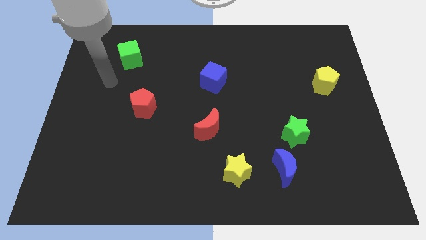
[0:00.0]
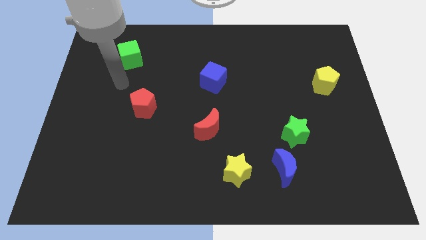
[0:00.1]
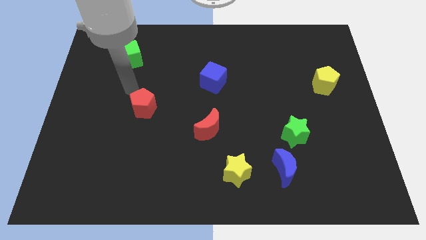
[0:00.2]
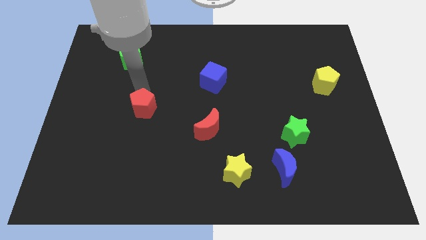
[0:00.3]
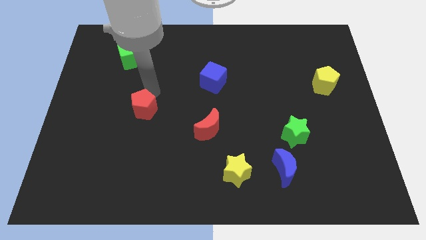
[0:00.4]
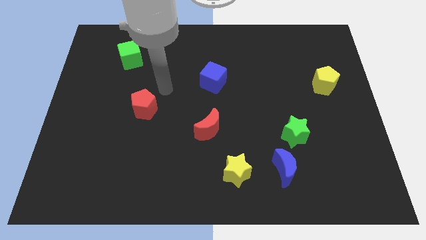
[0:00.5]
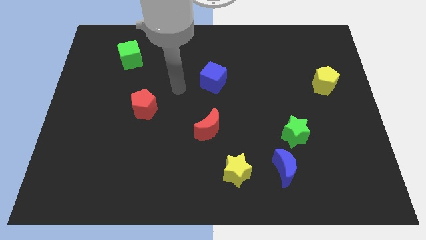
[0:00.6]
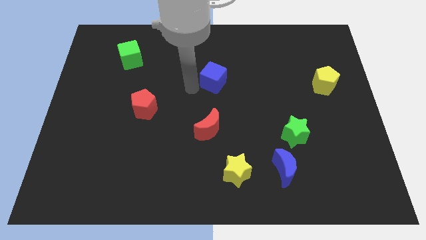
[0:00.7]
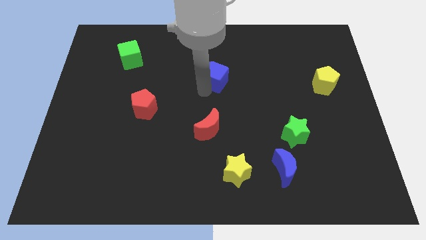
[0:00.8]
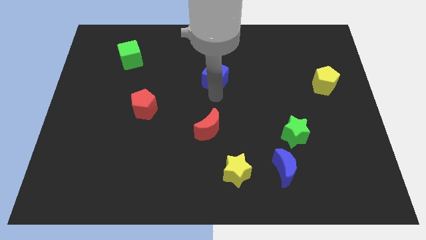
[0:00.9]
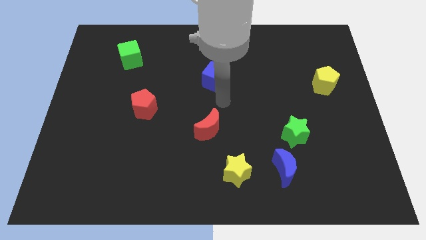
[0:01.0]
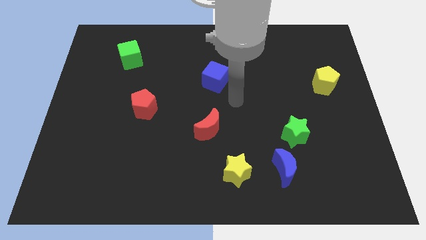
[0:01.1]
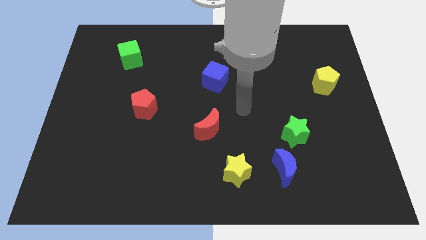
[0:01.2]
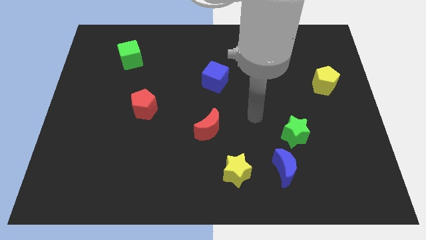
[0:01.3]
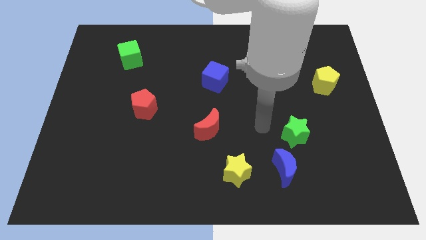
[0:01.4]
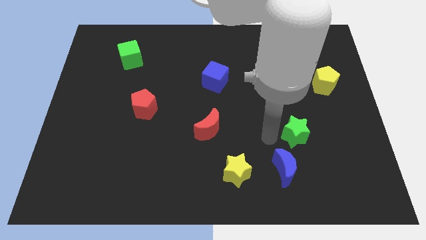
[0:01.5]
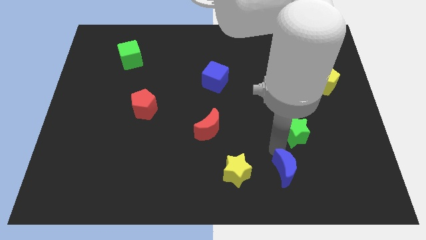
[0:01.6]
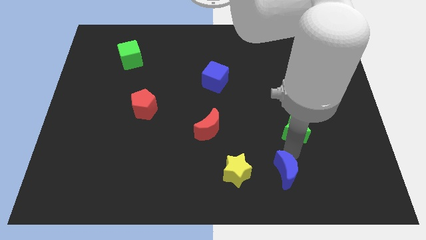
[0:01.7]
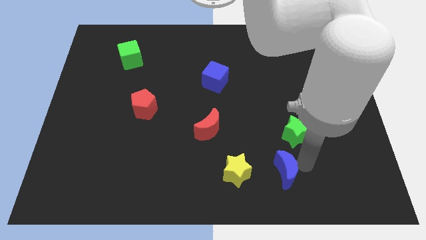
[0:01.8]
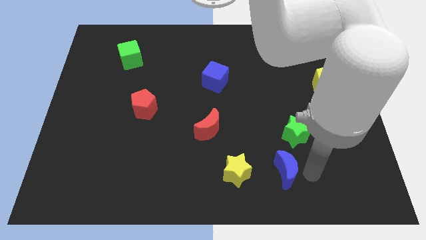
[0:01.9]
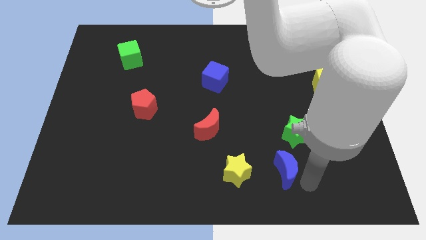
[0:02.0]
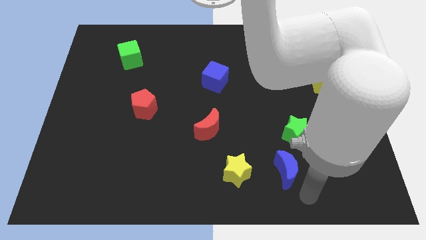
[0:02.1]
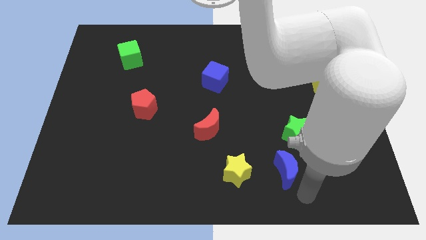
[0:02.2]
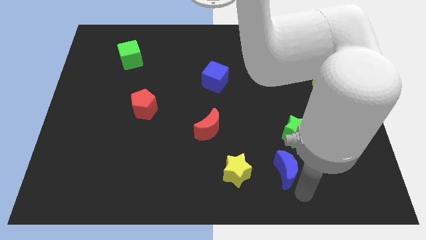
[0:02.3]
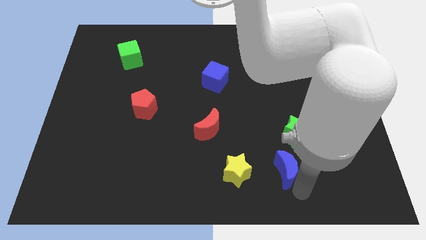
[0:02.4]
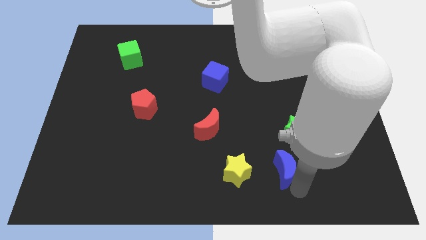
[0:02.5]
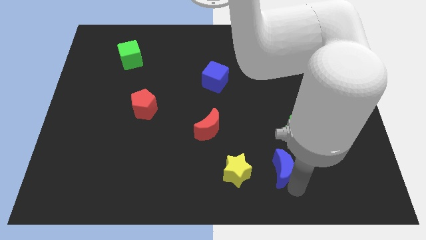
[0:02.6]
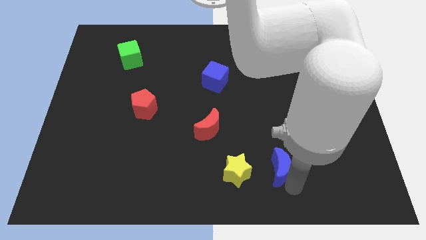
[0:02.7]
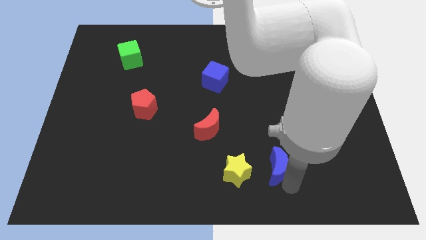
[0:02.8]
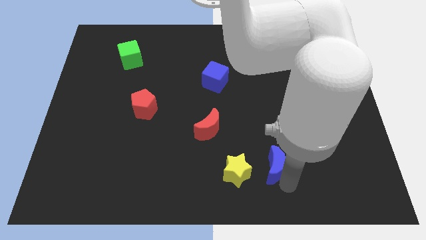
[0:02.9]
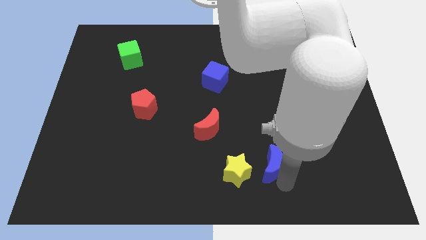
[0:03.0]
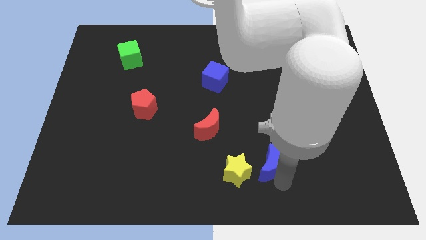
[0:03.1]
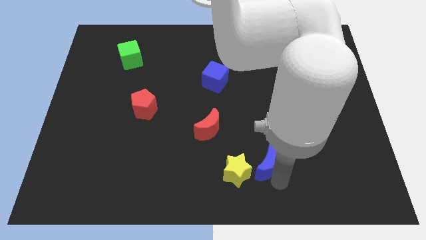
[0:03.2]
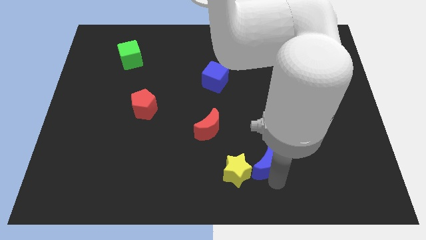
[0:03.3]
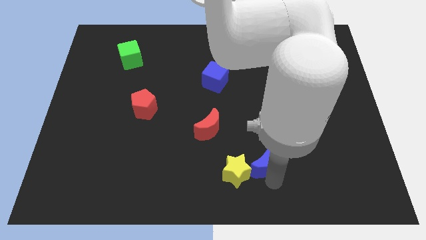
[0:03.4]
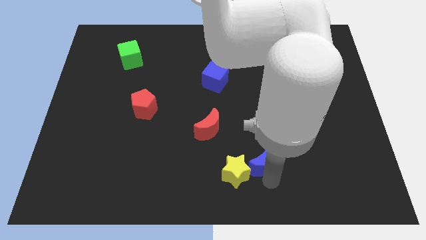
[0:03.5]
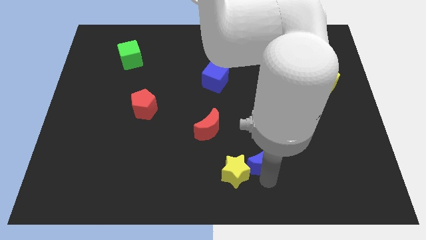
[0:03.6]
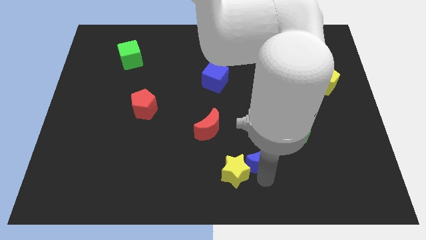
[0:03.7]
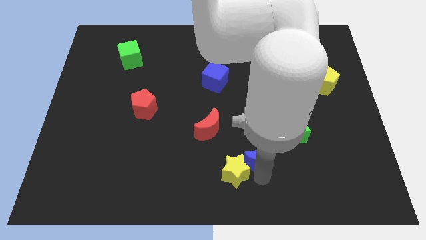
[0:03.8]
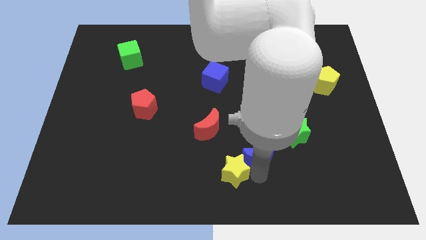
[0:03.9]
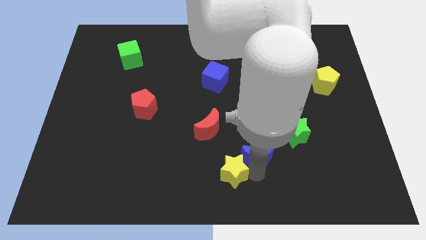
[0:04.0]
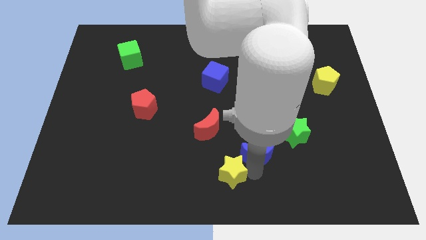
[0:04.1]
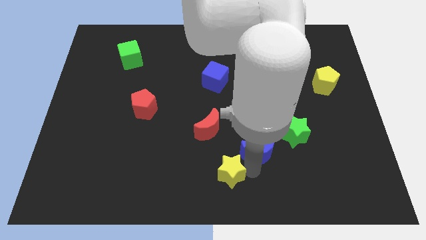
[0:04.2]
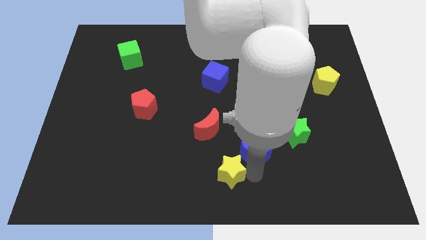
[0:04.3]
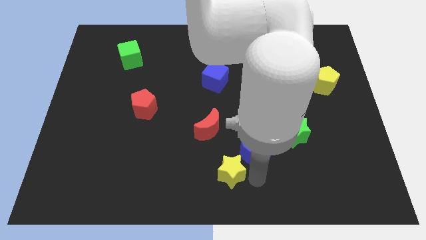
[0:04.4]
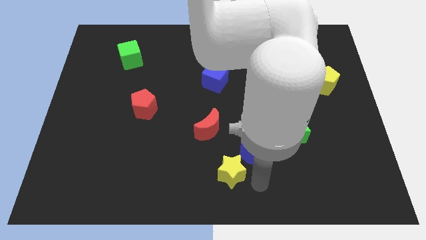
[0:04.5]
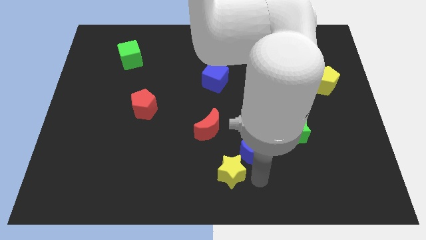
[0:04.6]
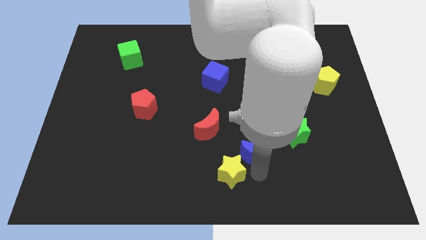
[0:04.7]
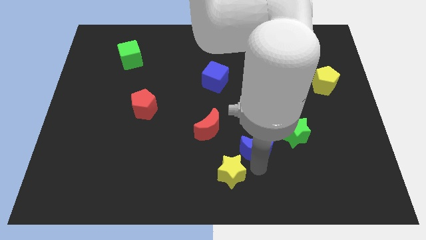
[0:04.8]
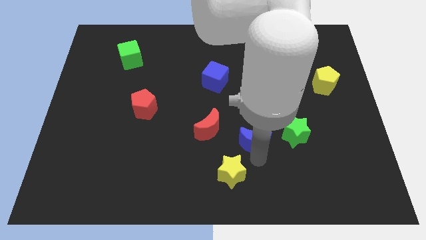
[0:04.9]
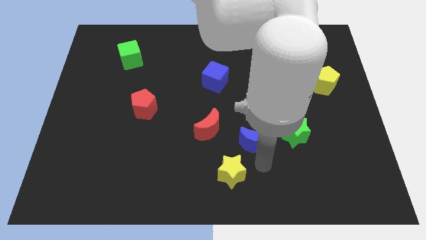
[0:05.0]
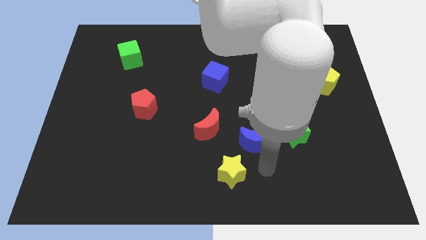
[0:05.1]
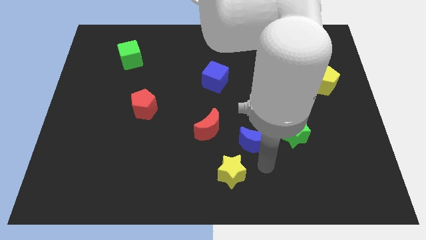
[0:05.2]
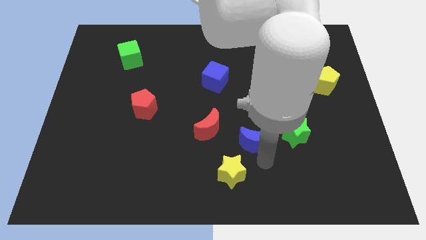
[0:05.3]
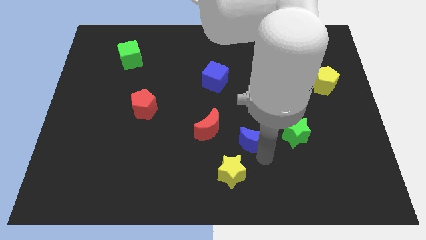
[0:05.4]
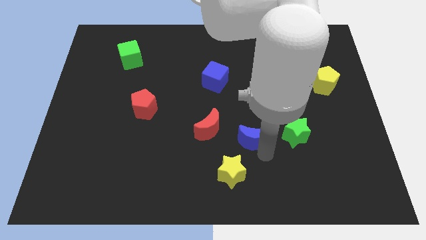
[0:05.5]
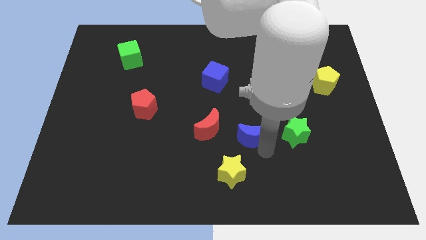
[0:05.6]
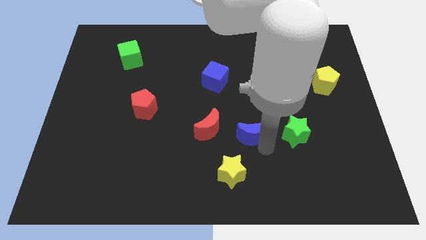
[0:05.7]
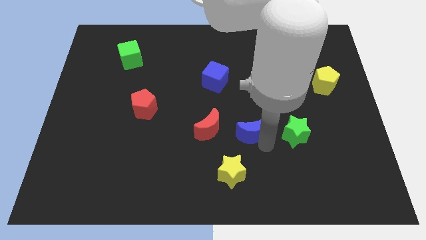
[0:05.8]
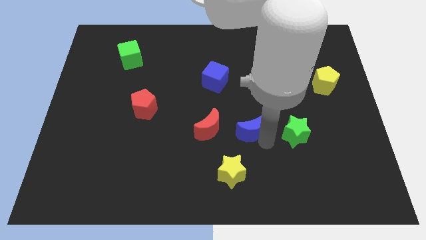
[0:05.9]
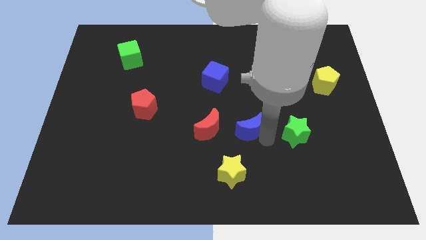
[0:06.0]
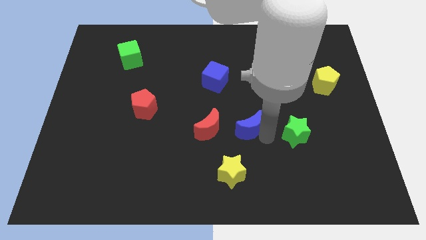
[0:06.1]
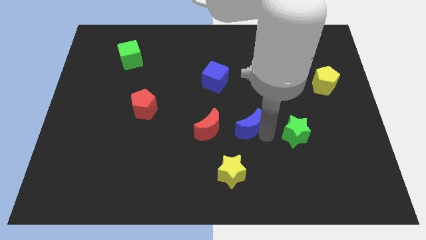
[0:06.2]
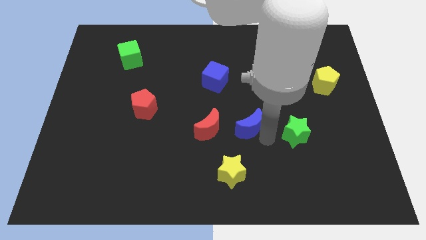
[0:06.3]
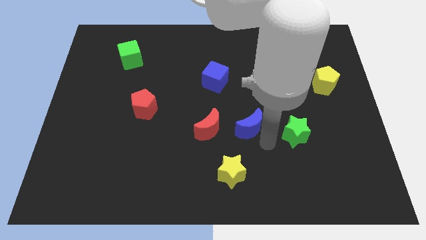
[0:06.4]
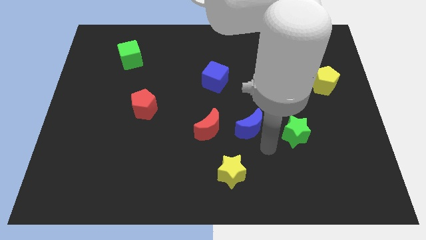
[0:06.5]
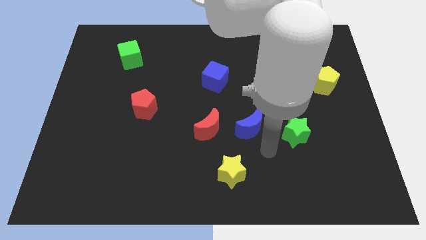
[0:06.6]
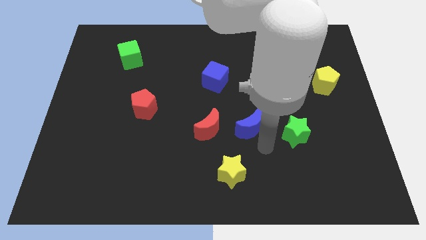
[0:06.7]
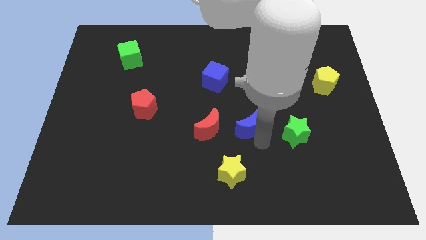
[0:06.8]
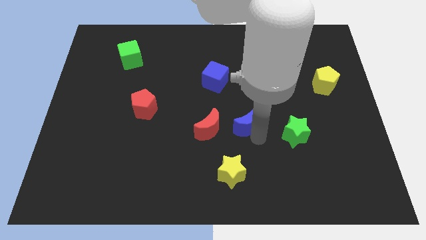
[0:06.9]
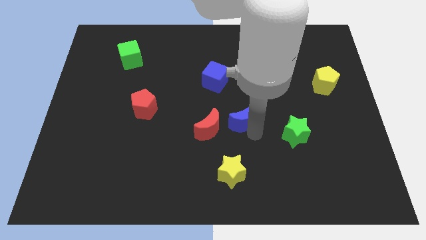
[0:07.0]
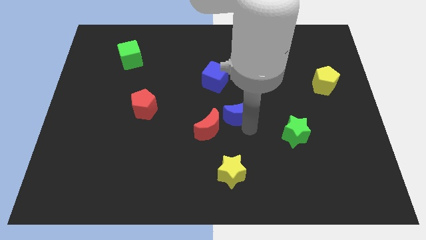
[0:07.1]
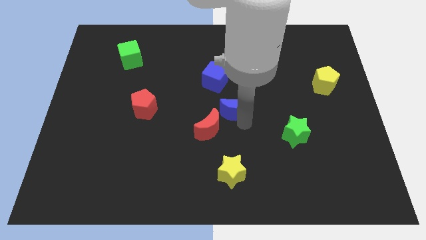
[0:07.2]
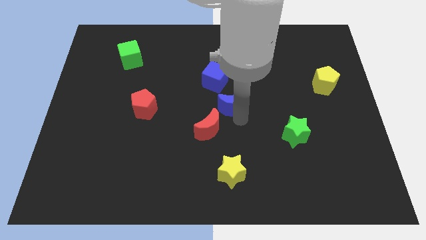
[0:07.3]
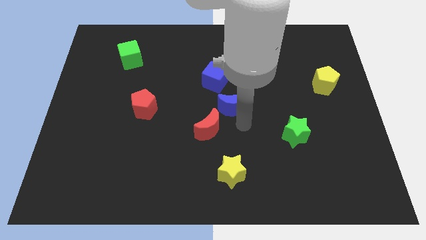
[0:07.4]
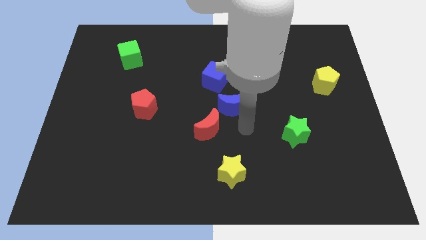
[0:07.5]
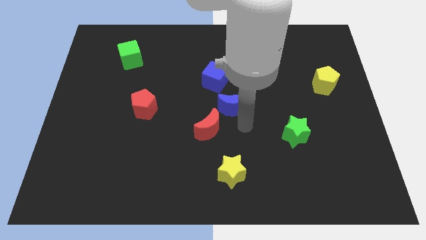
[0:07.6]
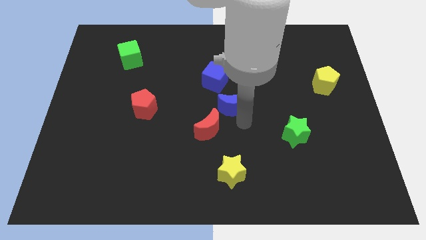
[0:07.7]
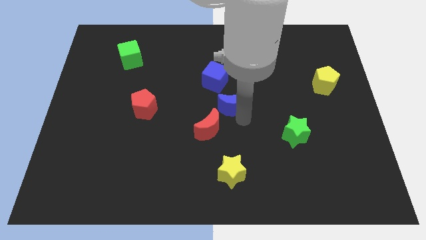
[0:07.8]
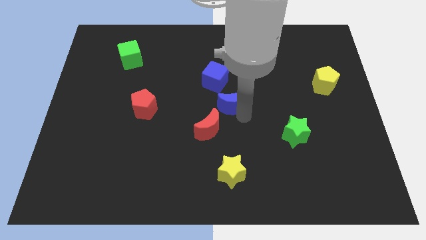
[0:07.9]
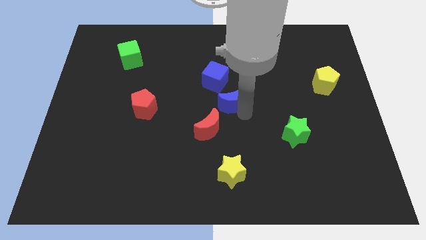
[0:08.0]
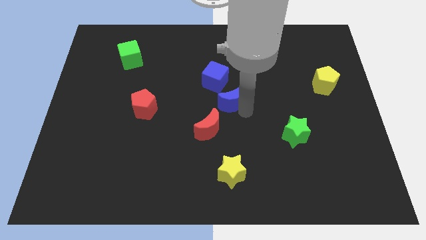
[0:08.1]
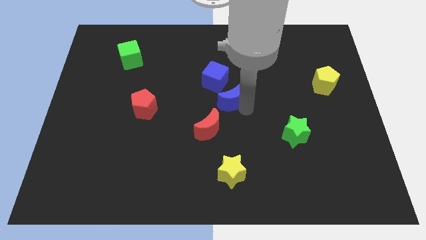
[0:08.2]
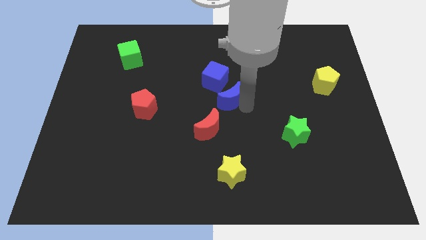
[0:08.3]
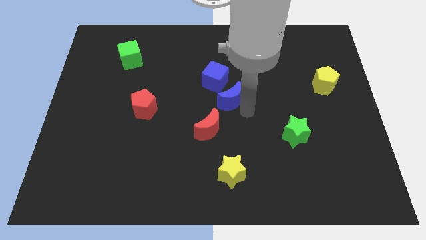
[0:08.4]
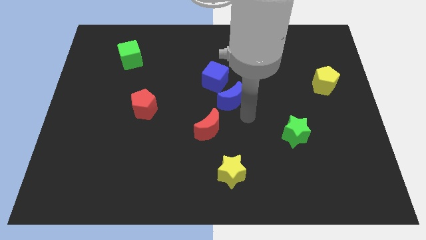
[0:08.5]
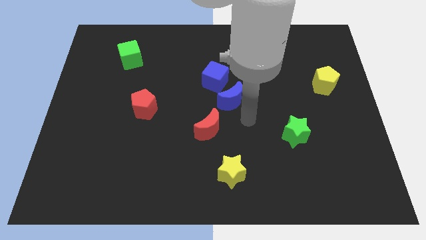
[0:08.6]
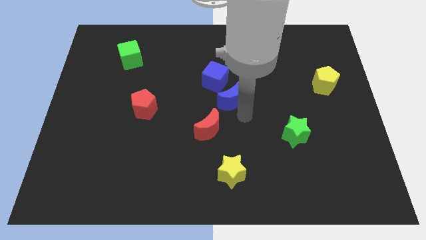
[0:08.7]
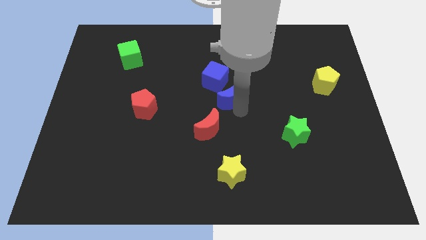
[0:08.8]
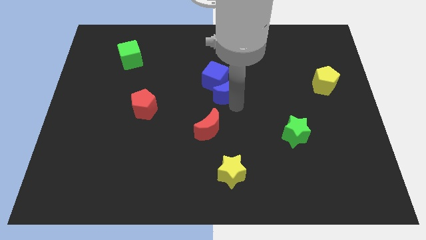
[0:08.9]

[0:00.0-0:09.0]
push the blue moon towards the blue cube
